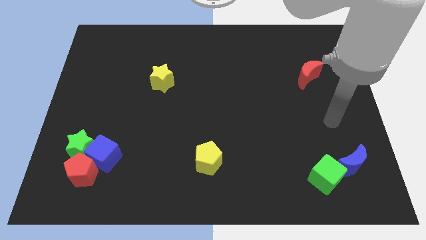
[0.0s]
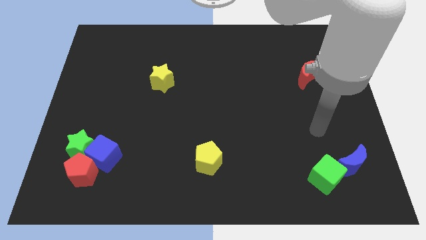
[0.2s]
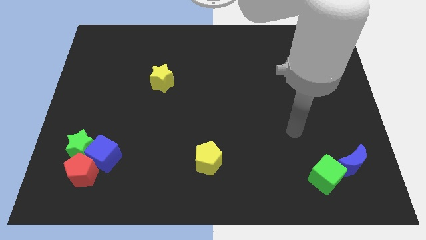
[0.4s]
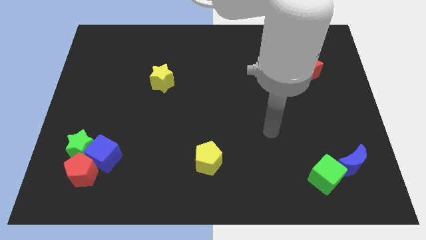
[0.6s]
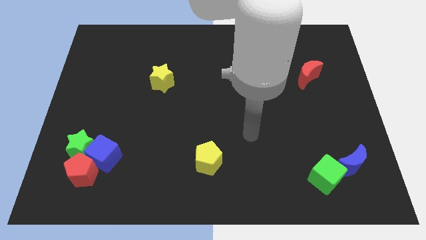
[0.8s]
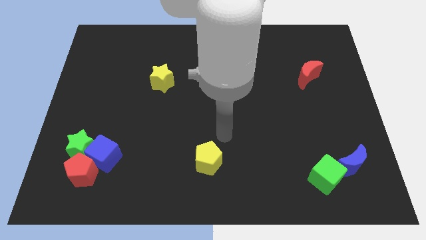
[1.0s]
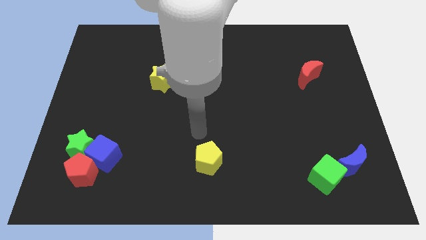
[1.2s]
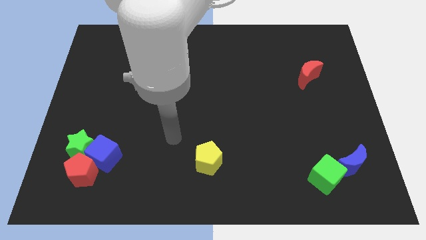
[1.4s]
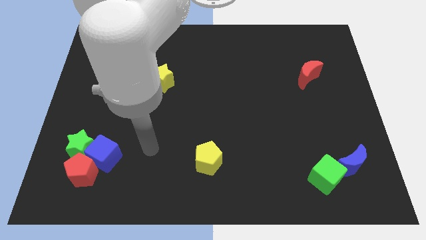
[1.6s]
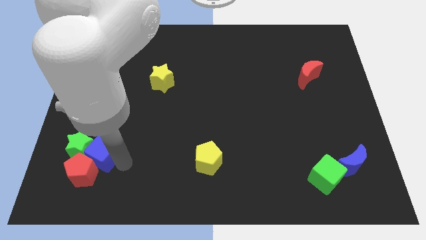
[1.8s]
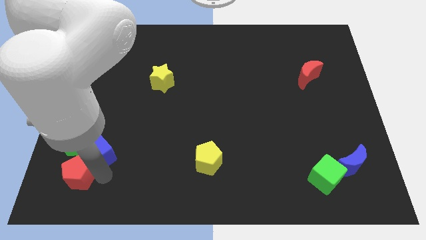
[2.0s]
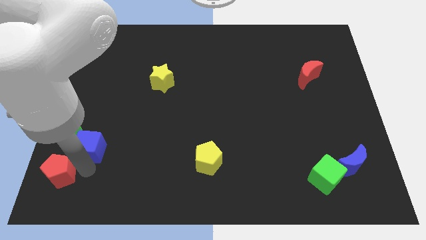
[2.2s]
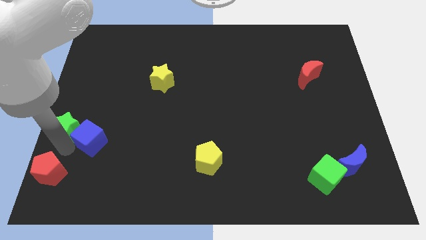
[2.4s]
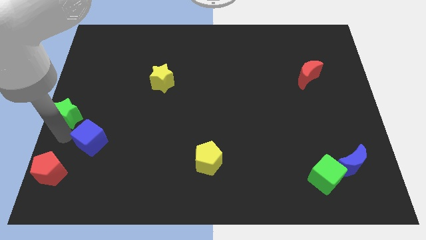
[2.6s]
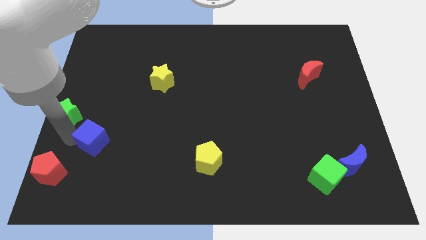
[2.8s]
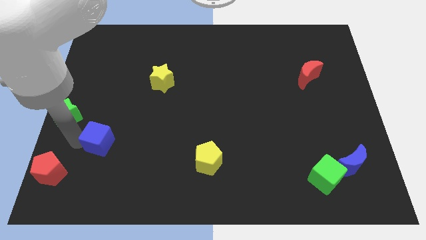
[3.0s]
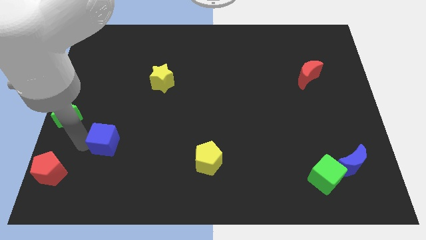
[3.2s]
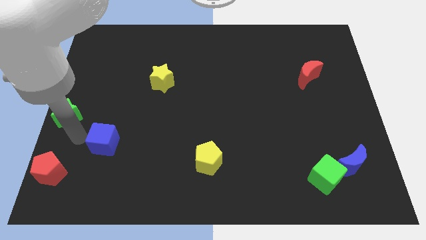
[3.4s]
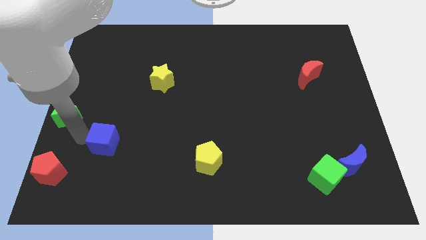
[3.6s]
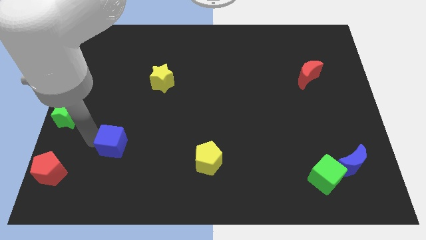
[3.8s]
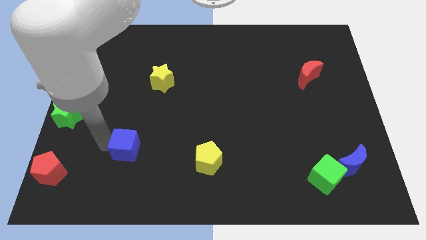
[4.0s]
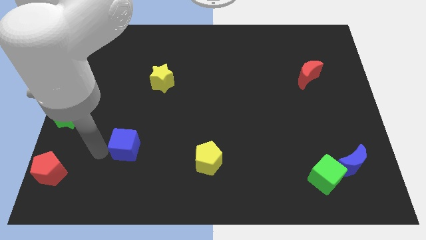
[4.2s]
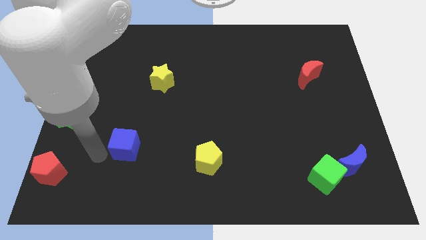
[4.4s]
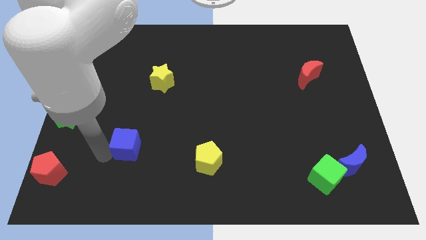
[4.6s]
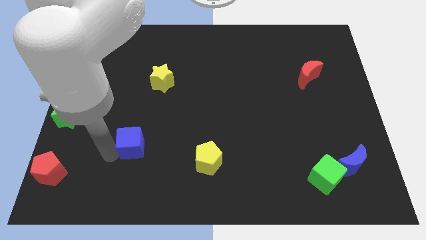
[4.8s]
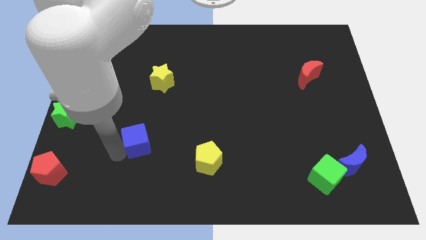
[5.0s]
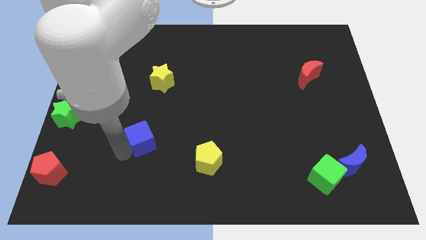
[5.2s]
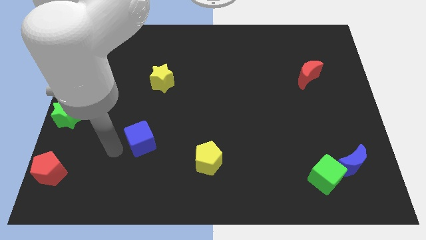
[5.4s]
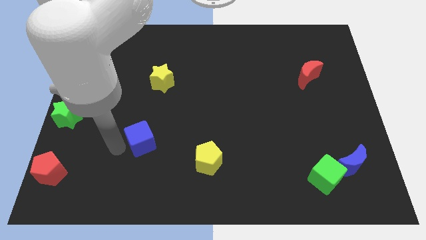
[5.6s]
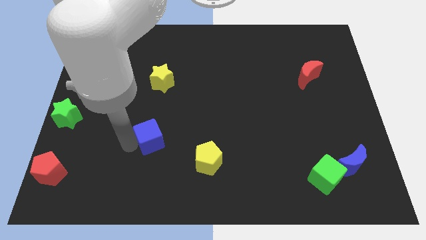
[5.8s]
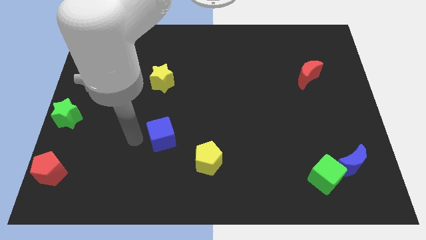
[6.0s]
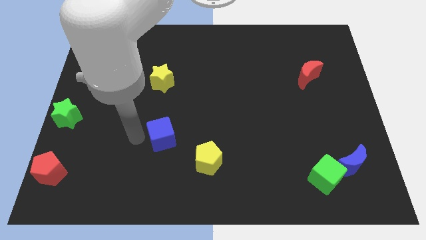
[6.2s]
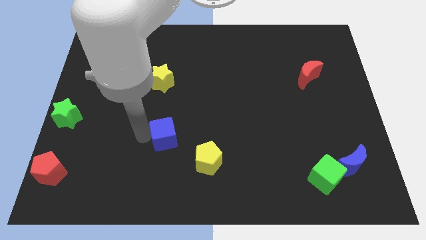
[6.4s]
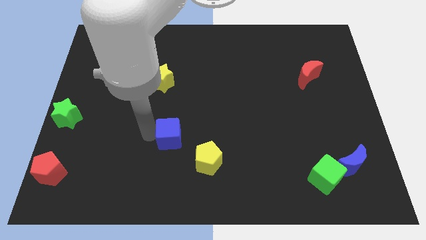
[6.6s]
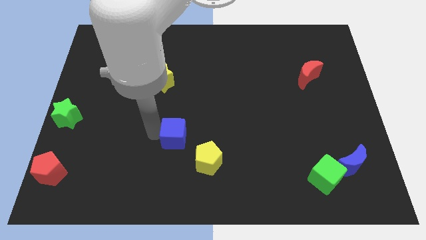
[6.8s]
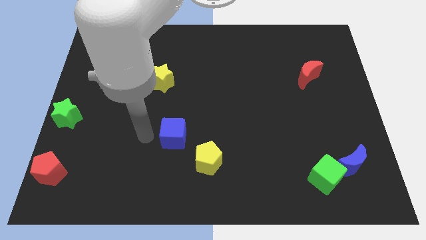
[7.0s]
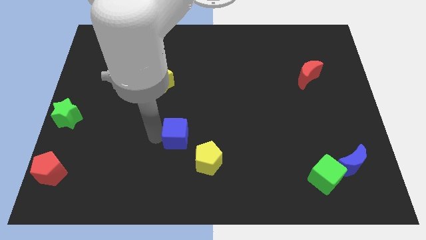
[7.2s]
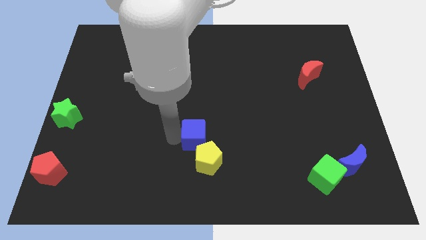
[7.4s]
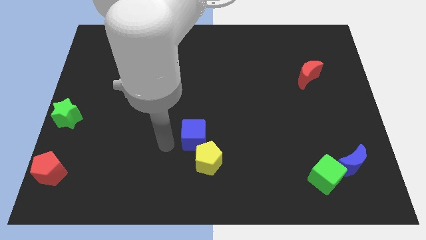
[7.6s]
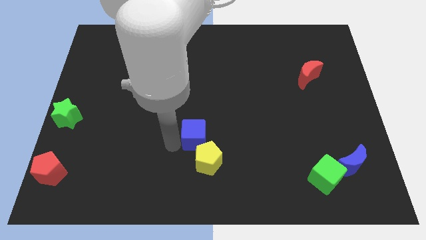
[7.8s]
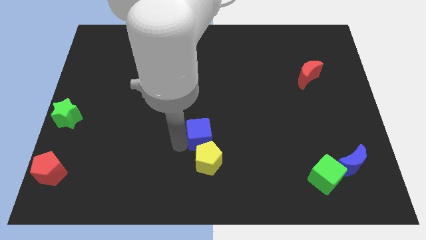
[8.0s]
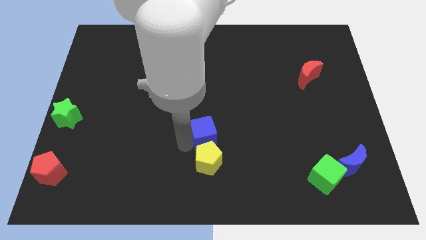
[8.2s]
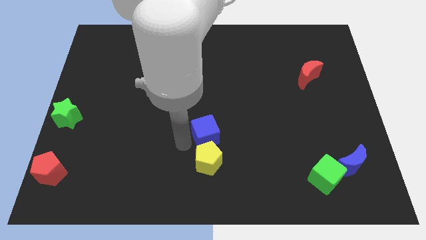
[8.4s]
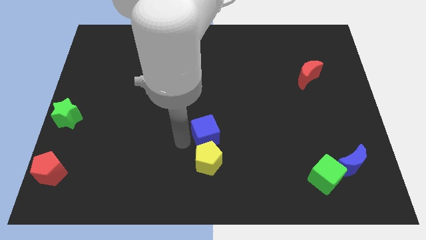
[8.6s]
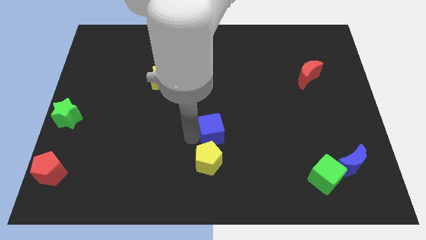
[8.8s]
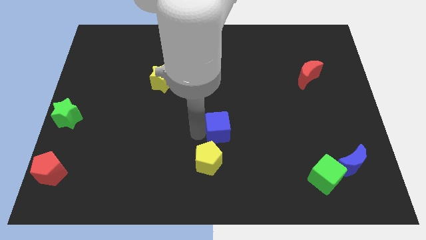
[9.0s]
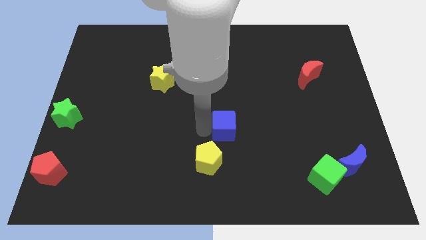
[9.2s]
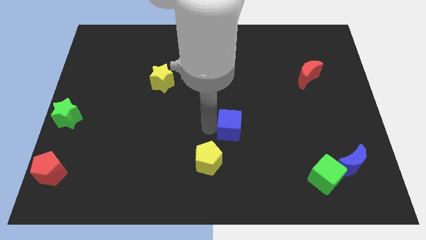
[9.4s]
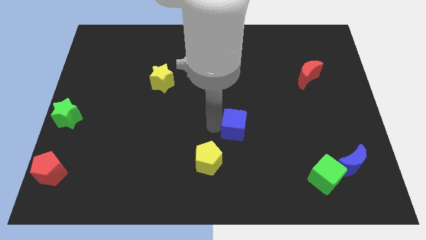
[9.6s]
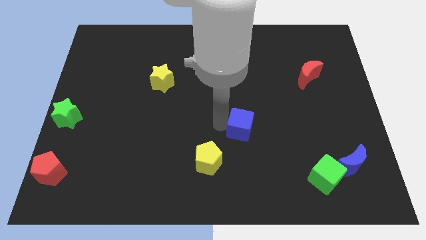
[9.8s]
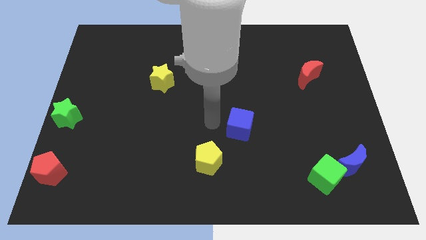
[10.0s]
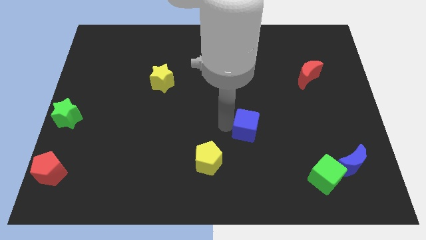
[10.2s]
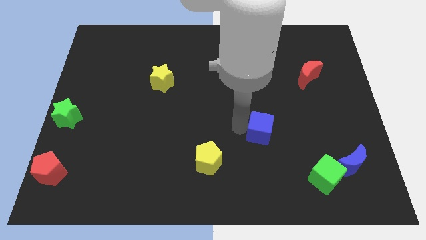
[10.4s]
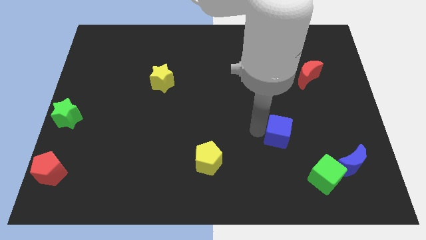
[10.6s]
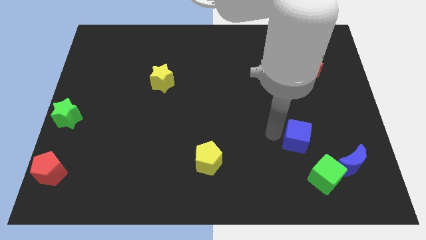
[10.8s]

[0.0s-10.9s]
slide the blue cube to the top left of the blue moon

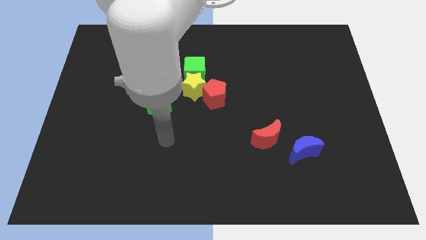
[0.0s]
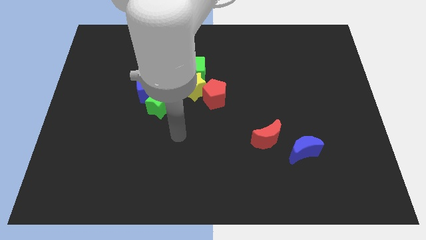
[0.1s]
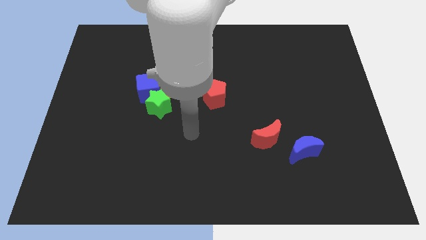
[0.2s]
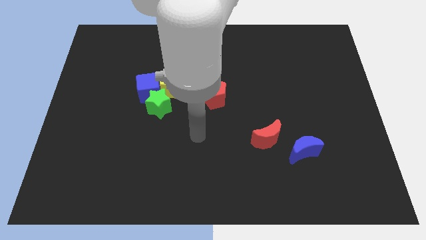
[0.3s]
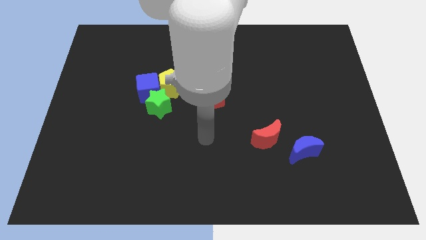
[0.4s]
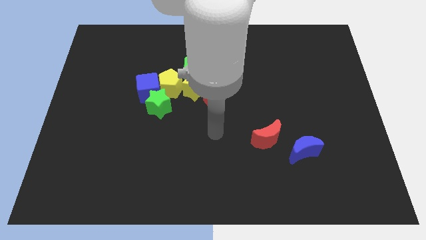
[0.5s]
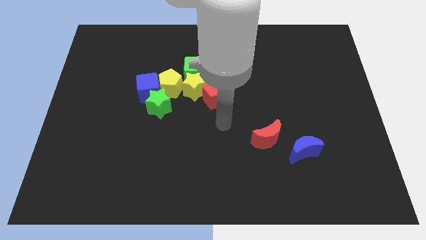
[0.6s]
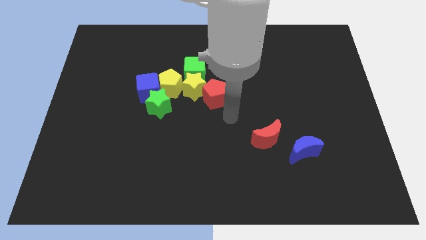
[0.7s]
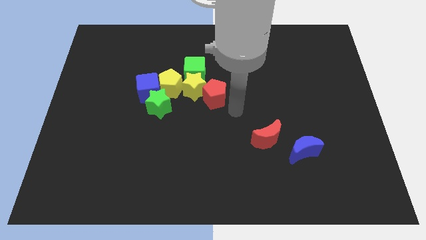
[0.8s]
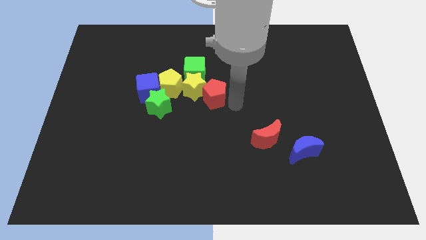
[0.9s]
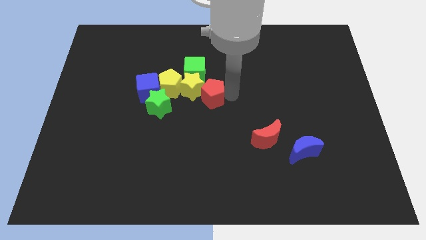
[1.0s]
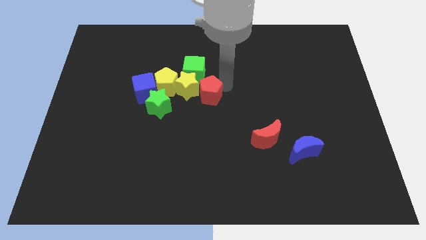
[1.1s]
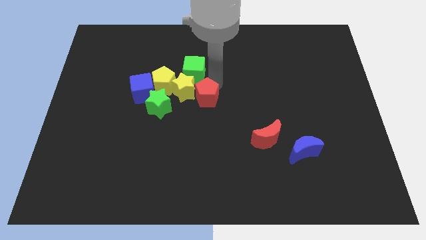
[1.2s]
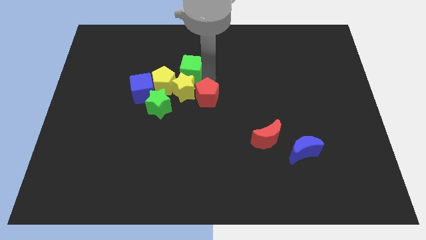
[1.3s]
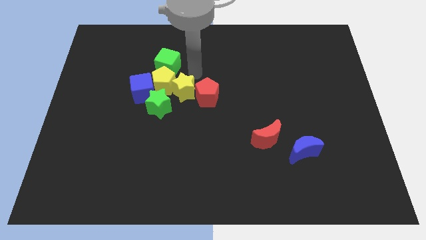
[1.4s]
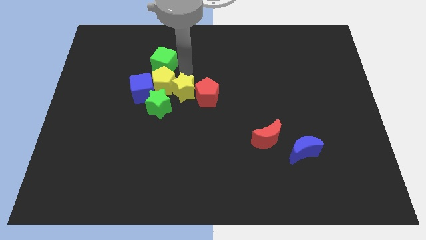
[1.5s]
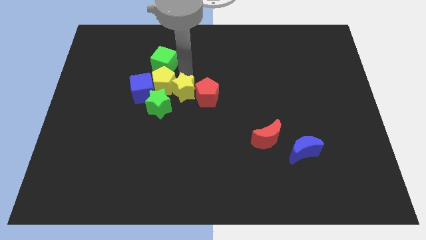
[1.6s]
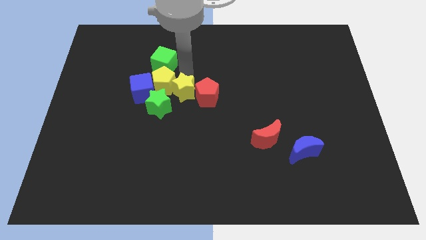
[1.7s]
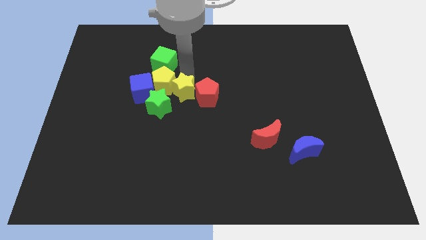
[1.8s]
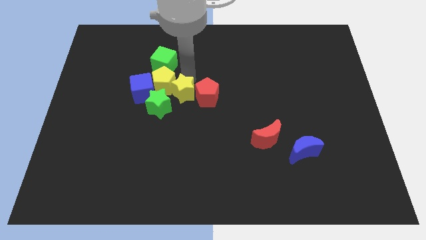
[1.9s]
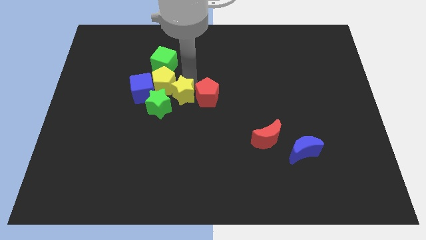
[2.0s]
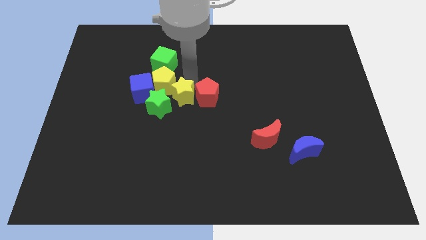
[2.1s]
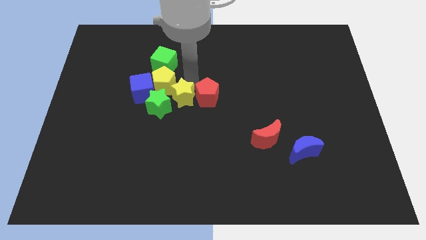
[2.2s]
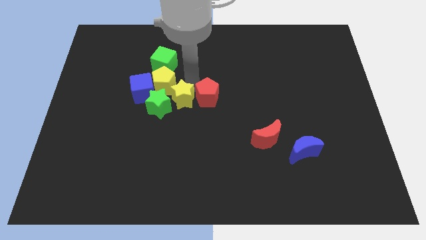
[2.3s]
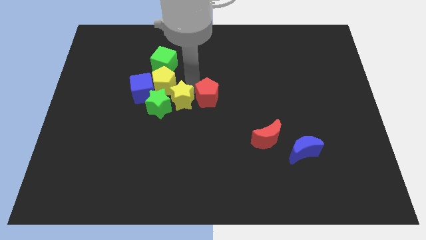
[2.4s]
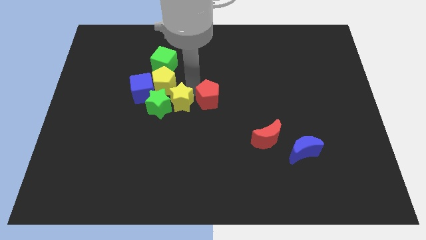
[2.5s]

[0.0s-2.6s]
move the yellow star to the bottom right side of the green star
